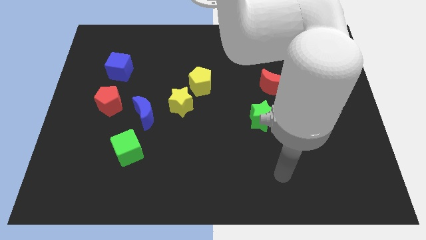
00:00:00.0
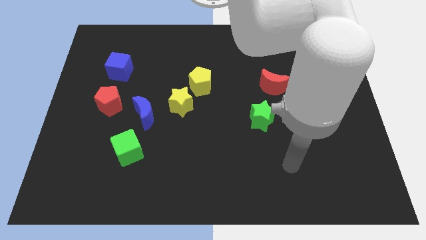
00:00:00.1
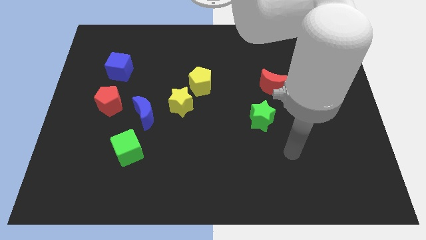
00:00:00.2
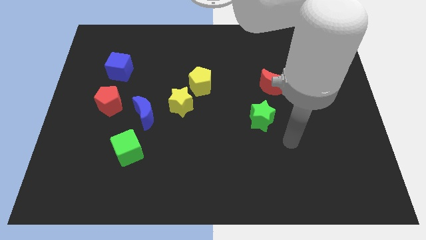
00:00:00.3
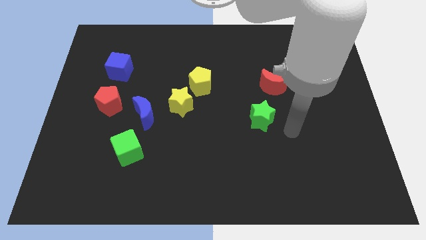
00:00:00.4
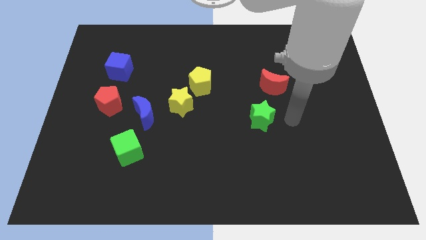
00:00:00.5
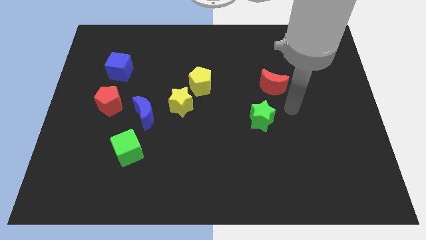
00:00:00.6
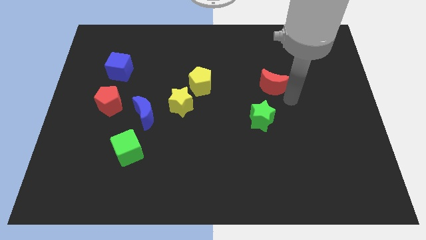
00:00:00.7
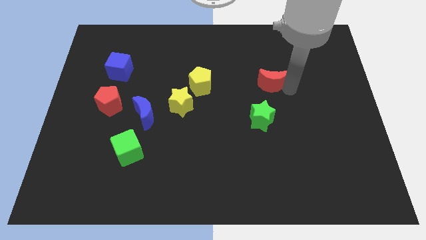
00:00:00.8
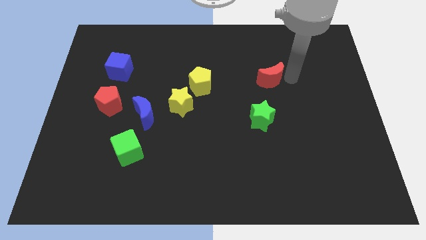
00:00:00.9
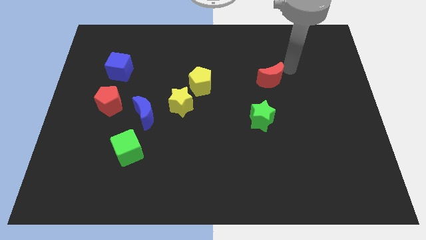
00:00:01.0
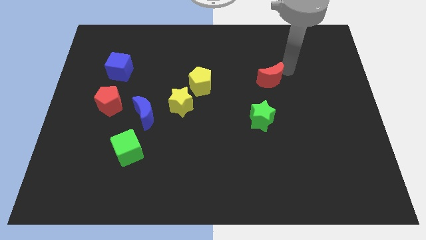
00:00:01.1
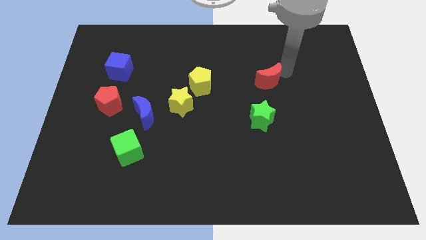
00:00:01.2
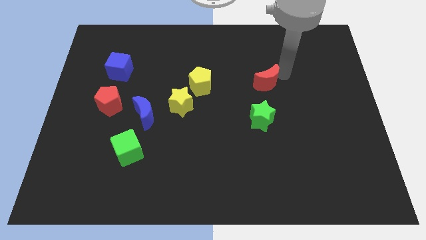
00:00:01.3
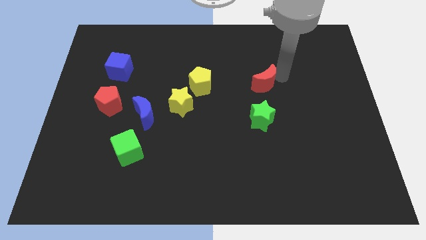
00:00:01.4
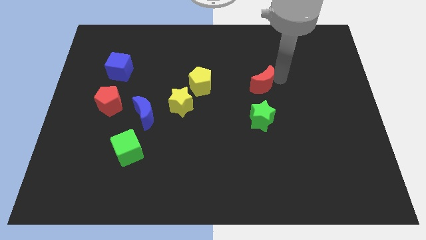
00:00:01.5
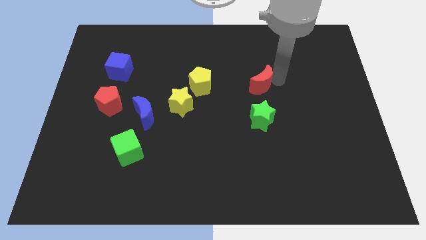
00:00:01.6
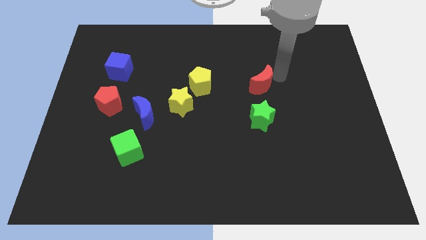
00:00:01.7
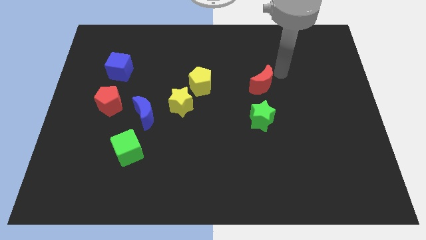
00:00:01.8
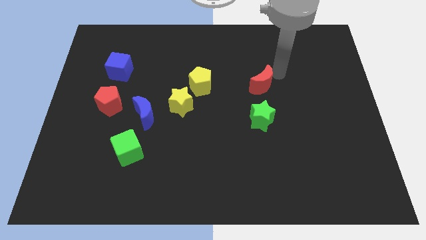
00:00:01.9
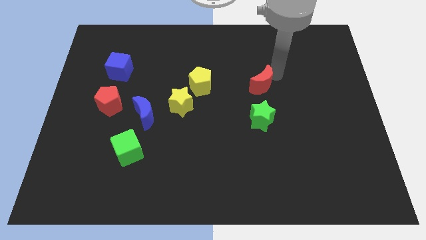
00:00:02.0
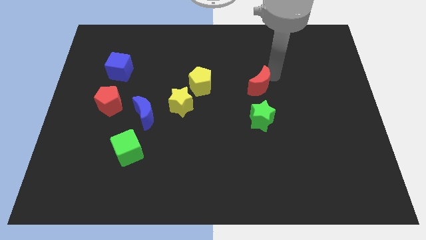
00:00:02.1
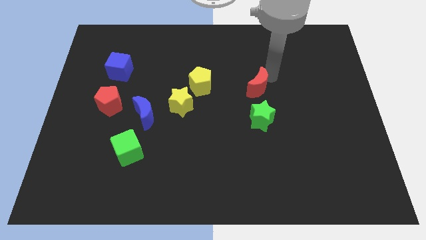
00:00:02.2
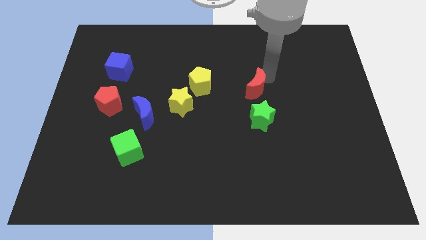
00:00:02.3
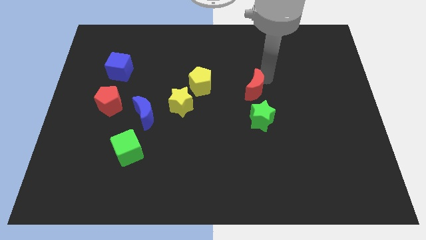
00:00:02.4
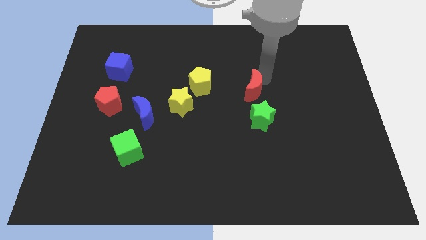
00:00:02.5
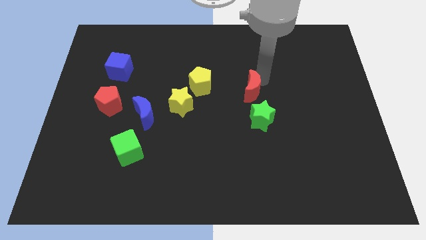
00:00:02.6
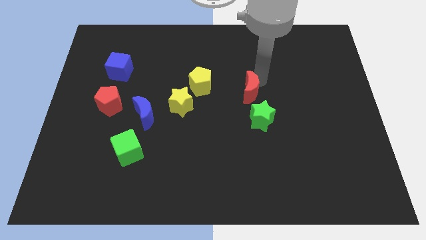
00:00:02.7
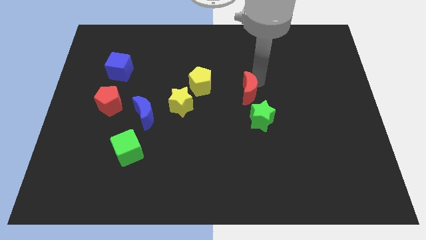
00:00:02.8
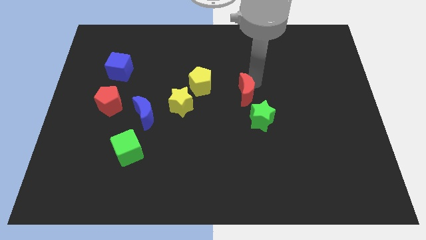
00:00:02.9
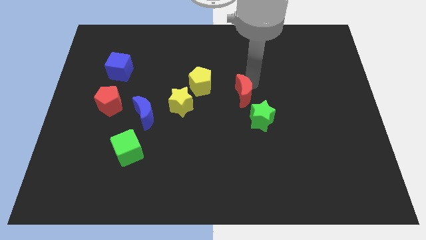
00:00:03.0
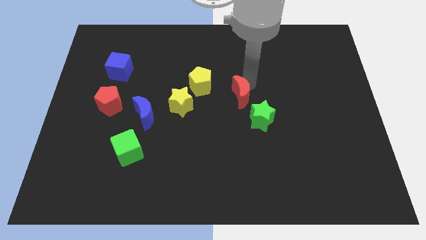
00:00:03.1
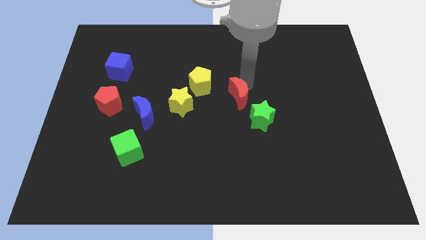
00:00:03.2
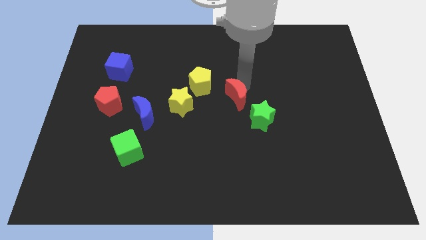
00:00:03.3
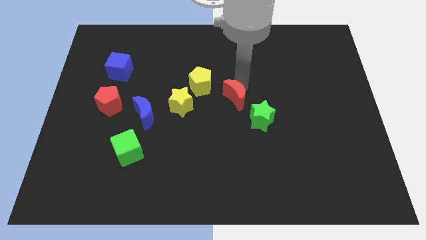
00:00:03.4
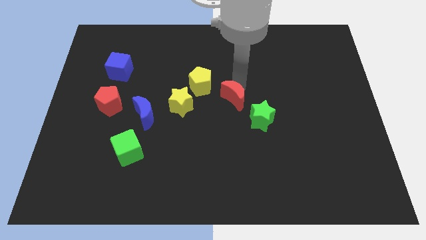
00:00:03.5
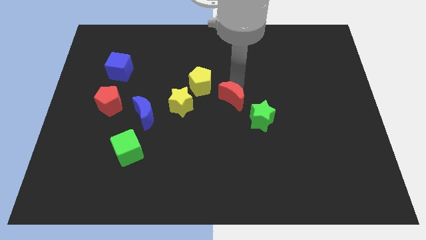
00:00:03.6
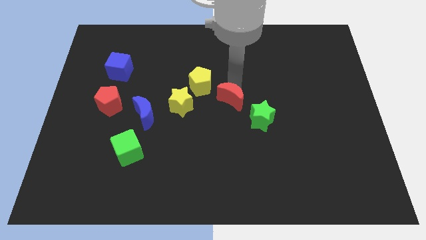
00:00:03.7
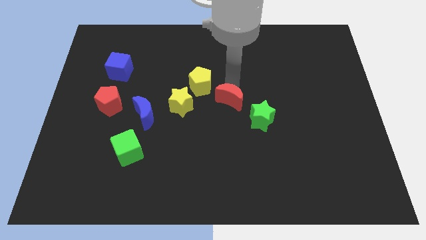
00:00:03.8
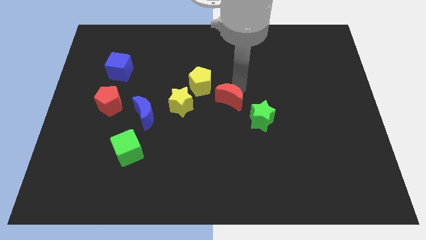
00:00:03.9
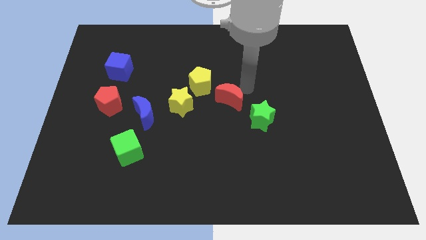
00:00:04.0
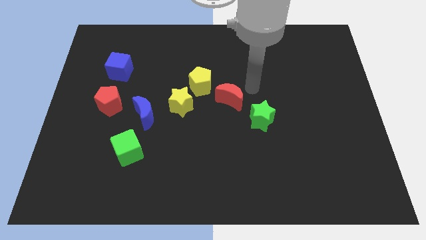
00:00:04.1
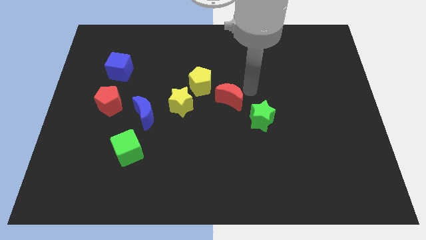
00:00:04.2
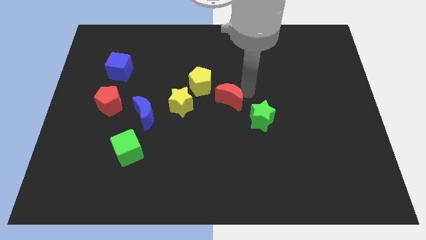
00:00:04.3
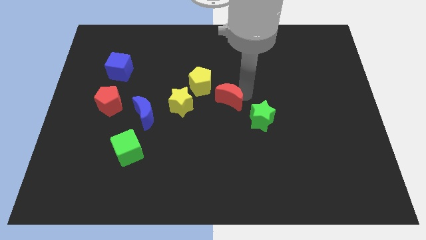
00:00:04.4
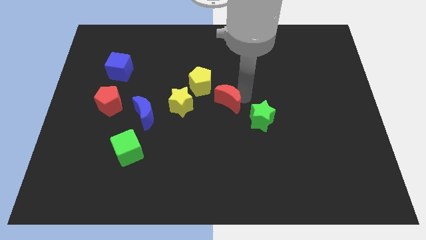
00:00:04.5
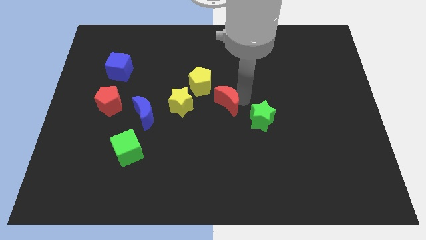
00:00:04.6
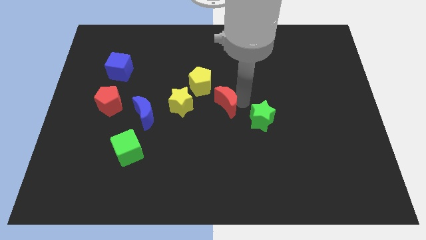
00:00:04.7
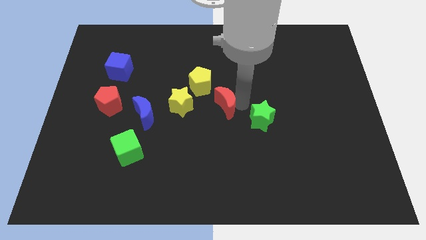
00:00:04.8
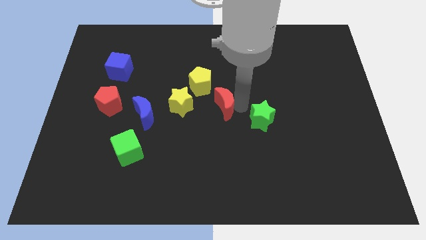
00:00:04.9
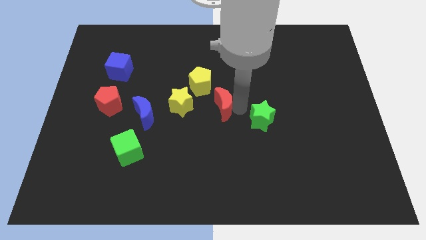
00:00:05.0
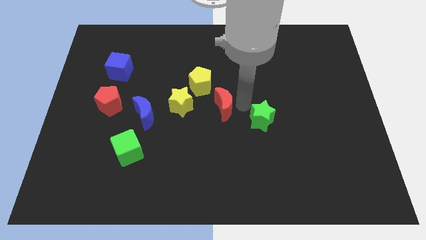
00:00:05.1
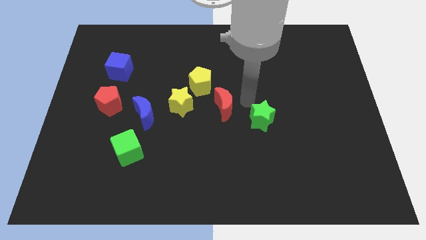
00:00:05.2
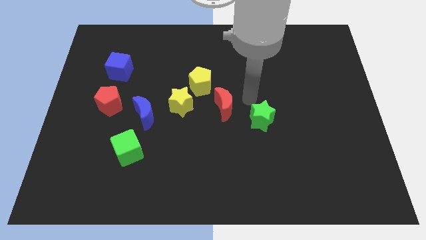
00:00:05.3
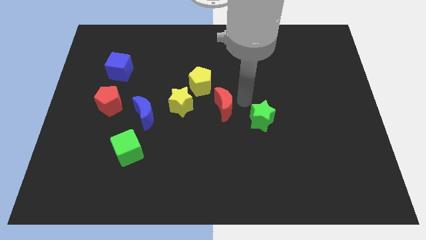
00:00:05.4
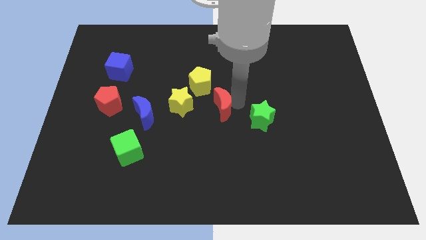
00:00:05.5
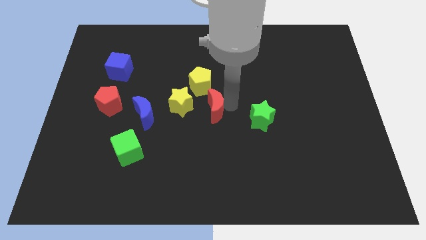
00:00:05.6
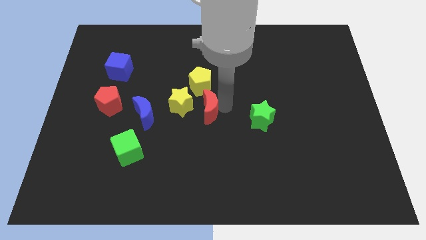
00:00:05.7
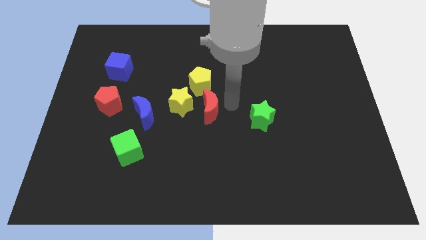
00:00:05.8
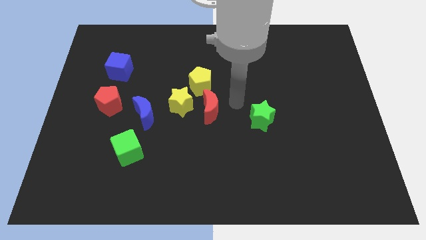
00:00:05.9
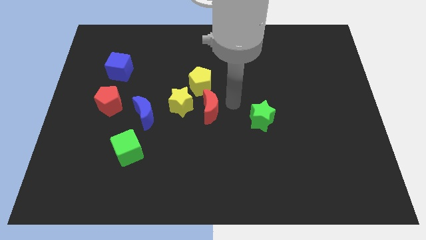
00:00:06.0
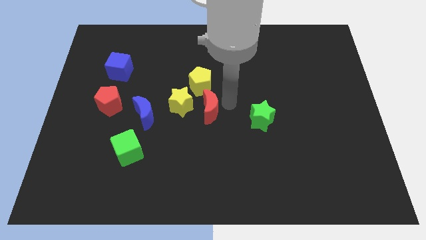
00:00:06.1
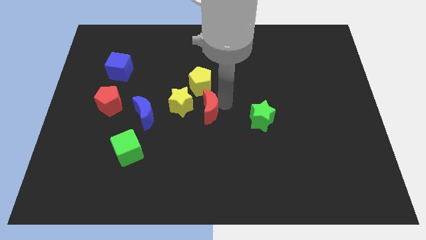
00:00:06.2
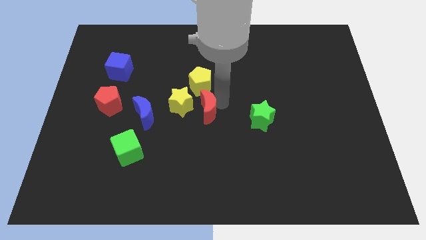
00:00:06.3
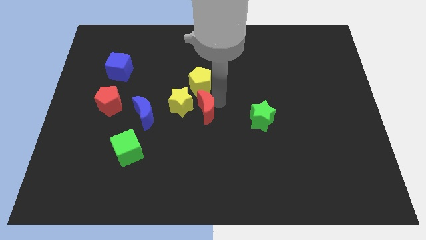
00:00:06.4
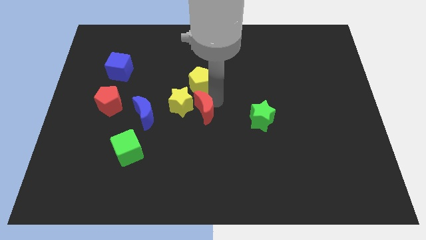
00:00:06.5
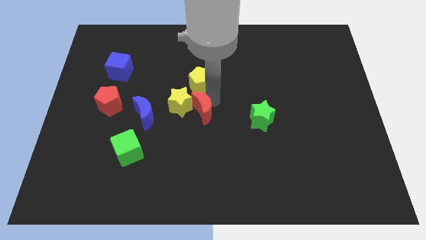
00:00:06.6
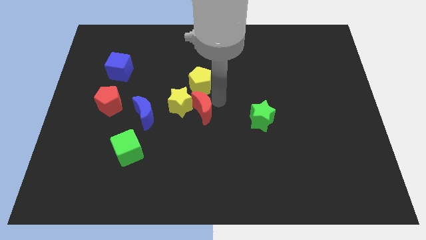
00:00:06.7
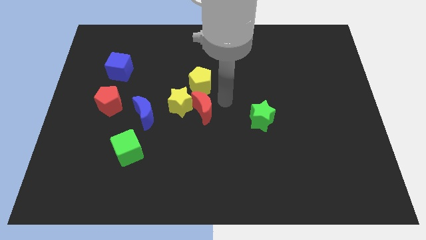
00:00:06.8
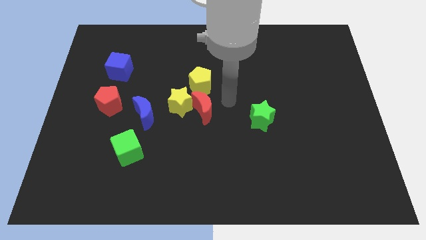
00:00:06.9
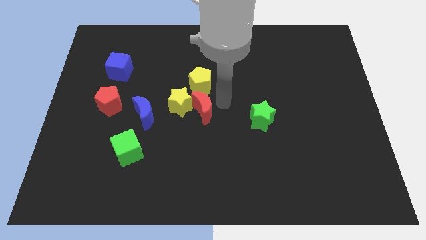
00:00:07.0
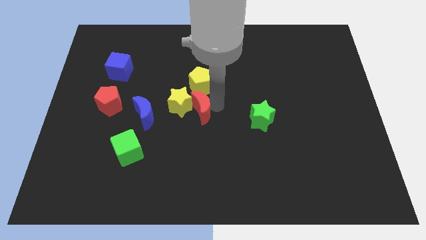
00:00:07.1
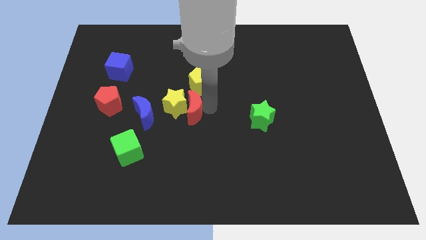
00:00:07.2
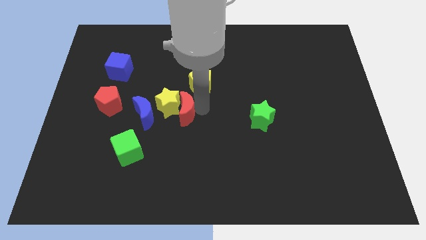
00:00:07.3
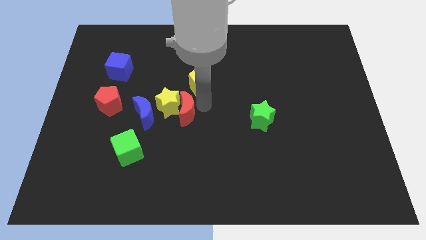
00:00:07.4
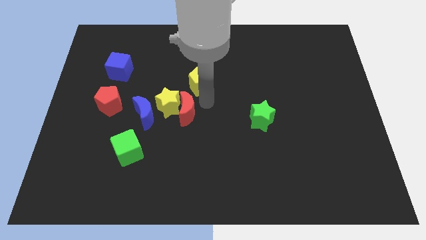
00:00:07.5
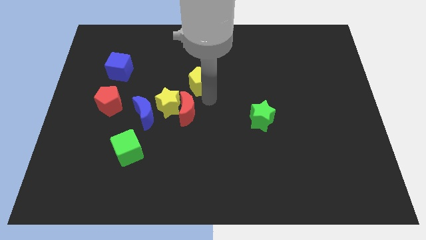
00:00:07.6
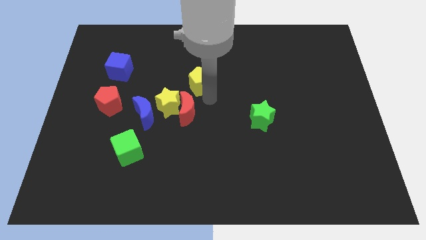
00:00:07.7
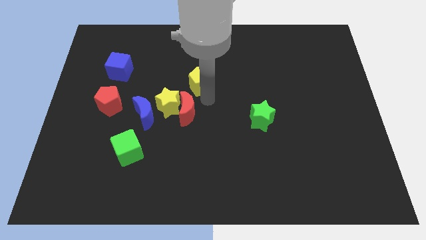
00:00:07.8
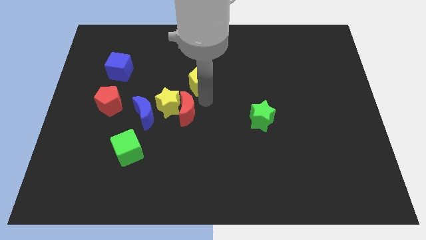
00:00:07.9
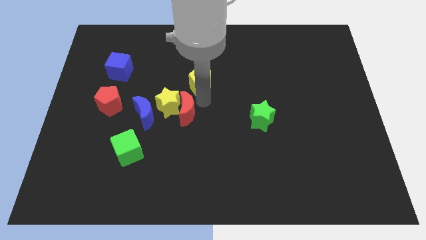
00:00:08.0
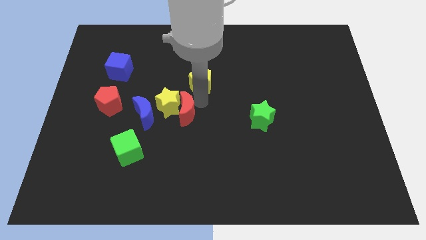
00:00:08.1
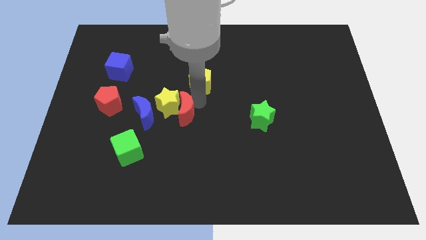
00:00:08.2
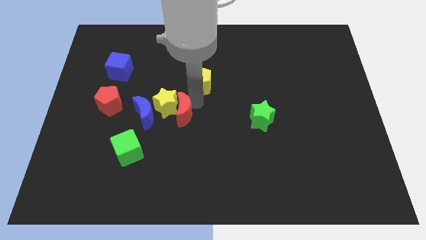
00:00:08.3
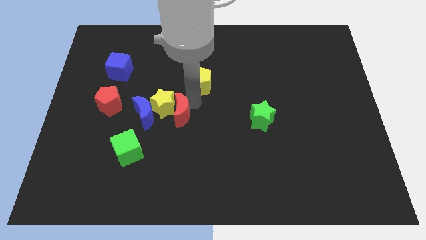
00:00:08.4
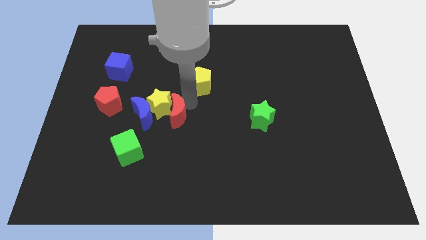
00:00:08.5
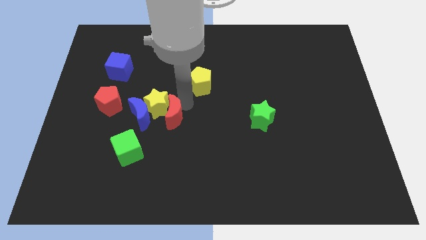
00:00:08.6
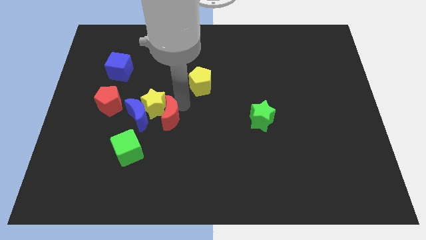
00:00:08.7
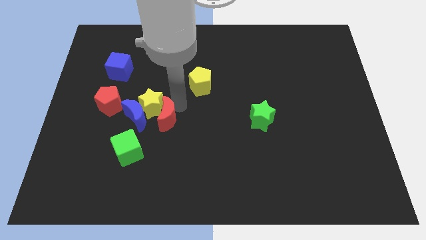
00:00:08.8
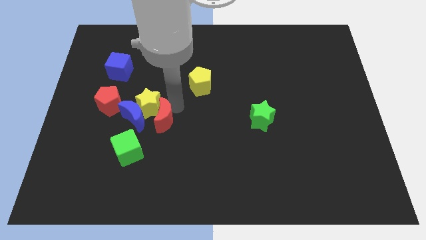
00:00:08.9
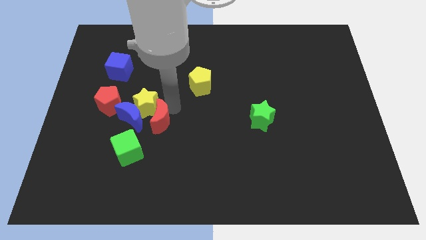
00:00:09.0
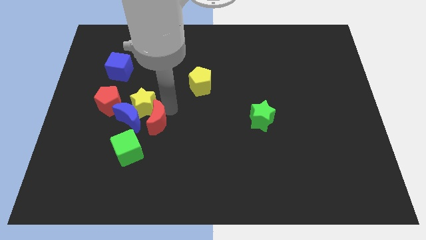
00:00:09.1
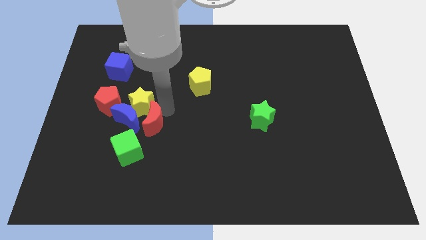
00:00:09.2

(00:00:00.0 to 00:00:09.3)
push the red moon towards the blue moon
